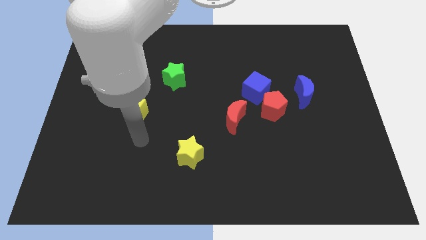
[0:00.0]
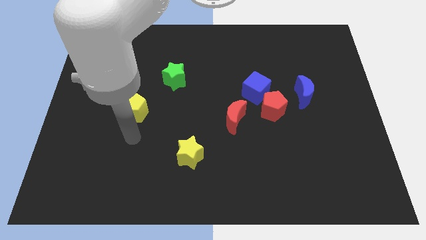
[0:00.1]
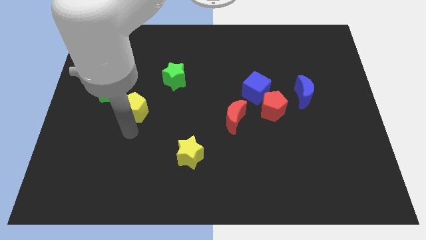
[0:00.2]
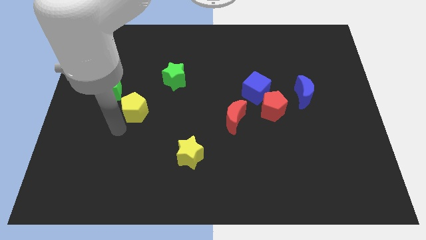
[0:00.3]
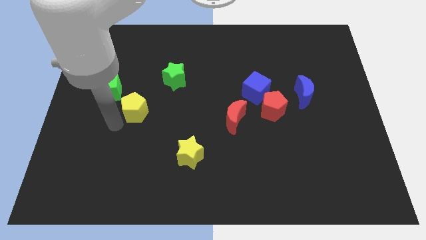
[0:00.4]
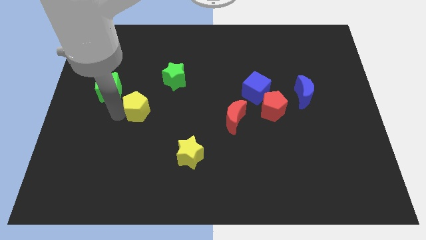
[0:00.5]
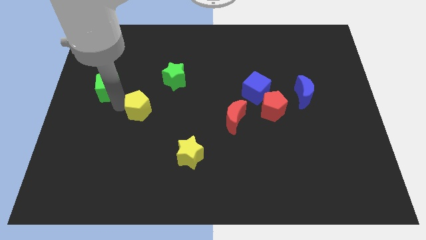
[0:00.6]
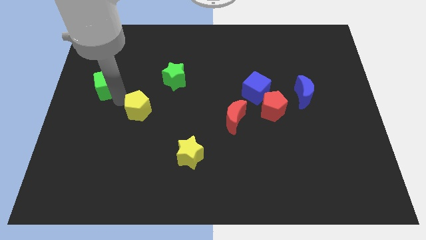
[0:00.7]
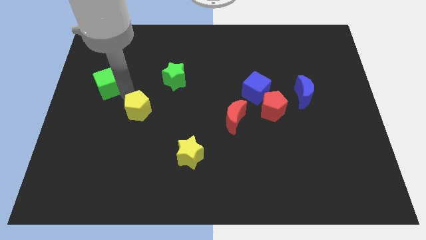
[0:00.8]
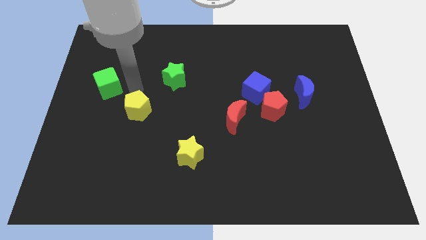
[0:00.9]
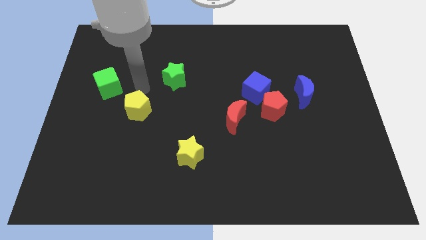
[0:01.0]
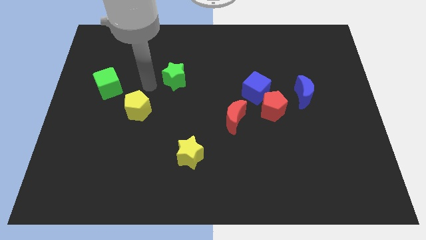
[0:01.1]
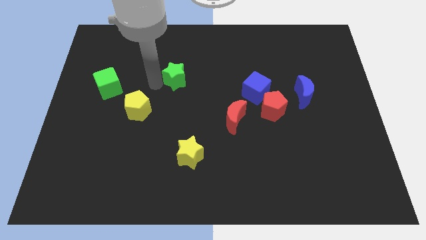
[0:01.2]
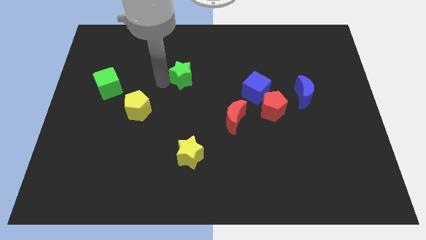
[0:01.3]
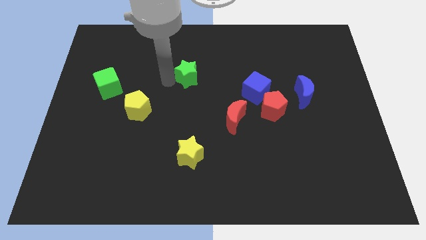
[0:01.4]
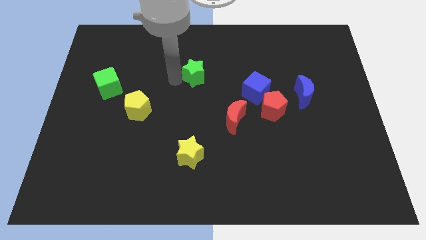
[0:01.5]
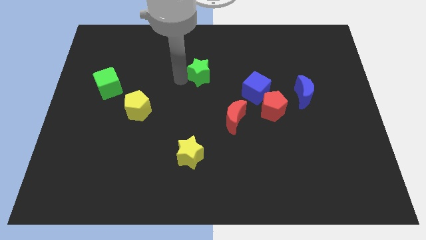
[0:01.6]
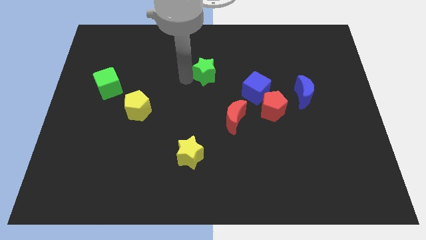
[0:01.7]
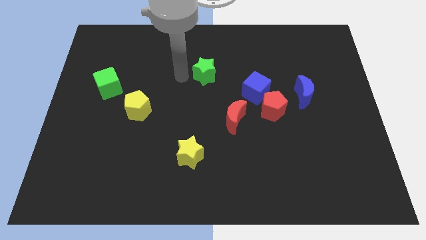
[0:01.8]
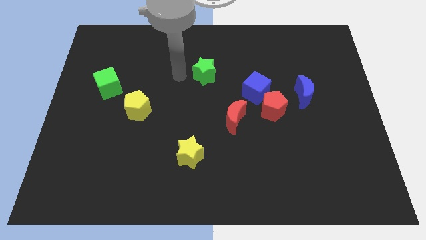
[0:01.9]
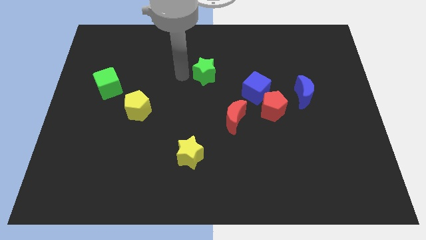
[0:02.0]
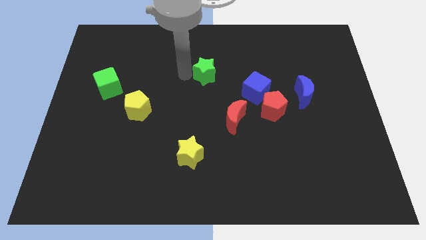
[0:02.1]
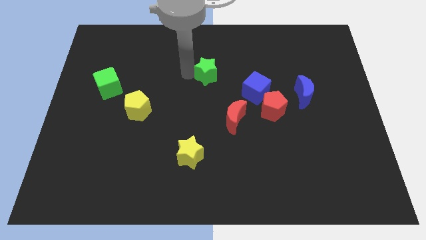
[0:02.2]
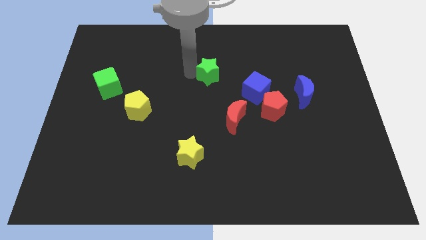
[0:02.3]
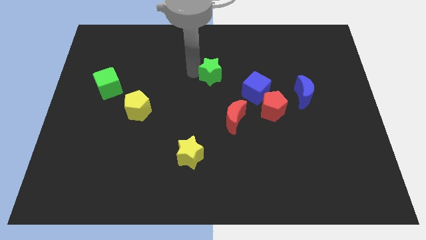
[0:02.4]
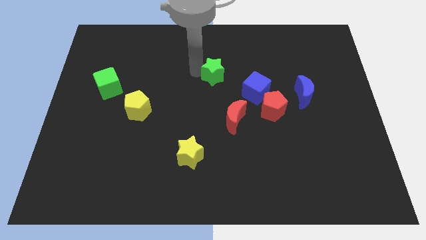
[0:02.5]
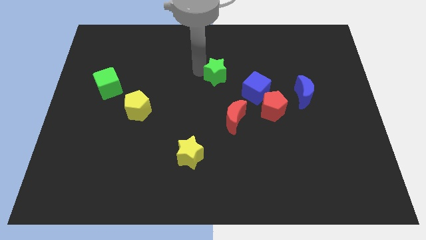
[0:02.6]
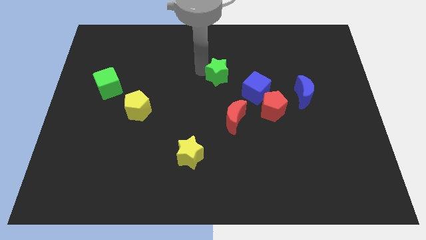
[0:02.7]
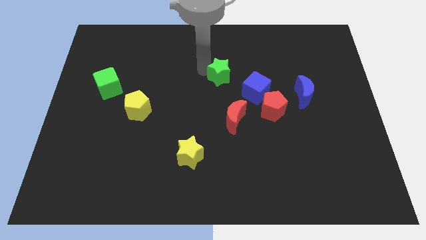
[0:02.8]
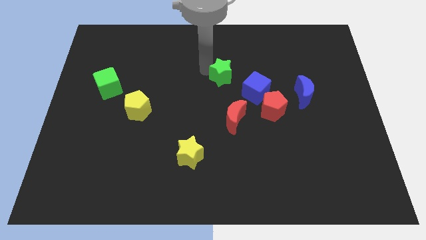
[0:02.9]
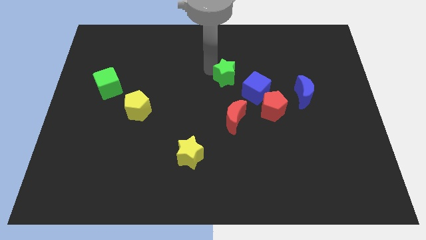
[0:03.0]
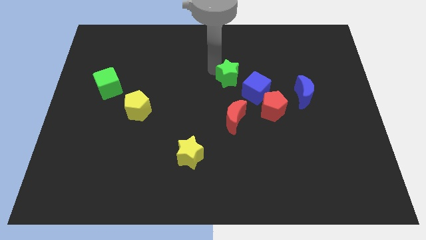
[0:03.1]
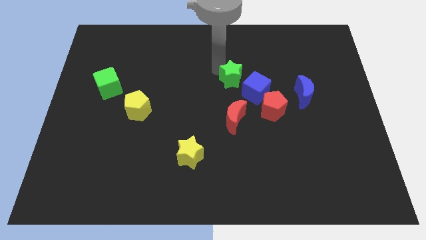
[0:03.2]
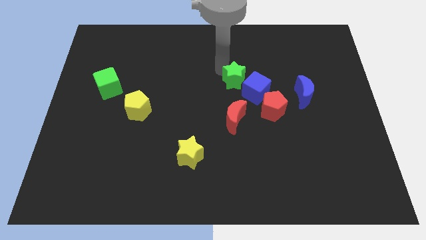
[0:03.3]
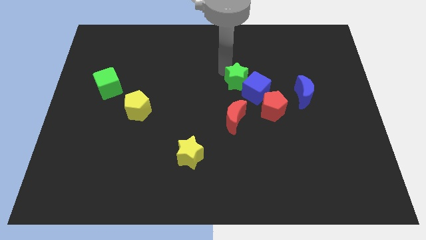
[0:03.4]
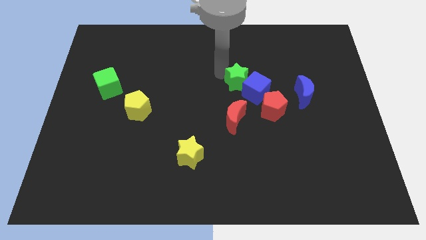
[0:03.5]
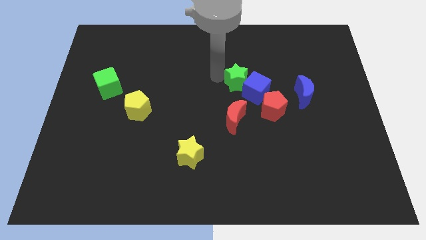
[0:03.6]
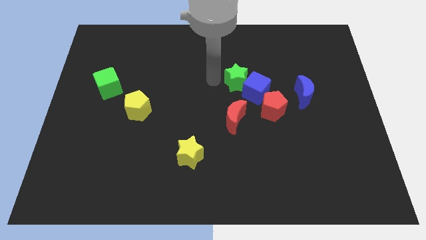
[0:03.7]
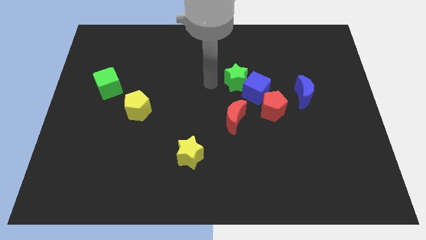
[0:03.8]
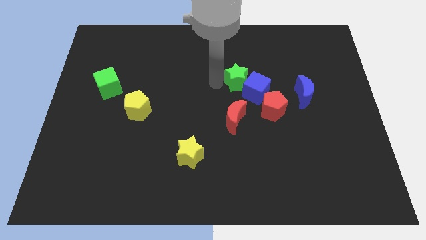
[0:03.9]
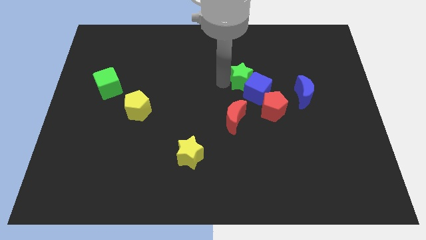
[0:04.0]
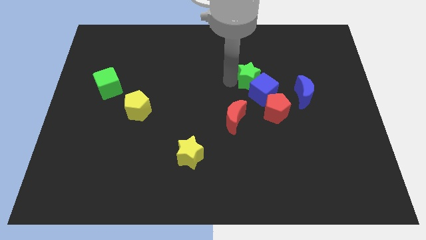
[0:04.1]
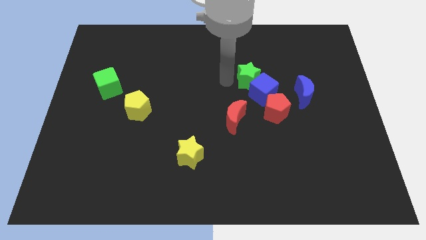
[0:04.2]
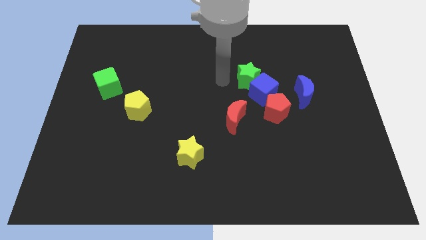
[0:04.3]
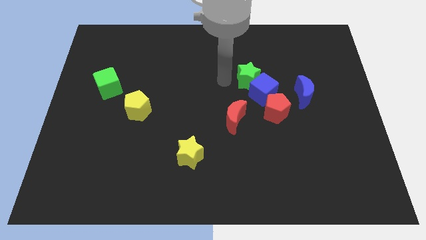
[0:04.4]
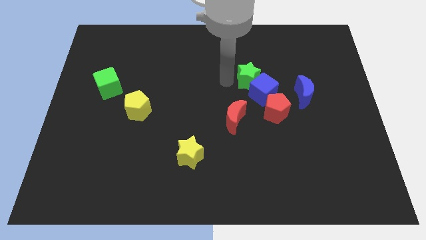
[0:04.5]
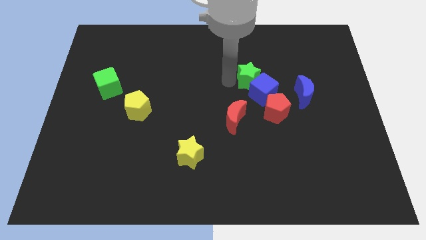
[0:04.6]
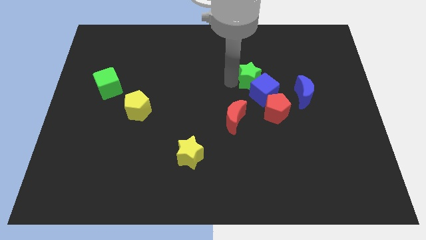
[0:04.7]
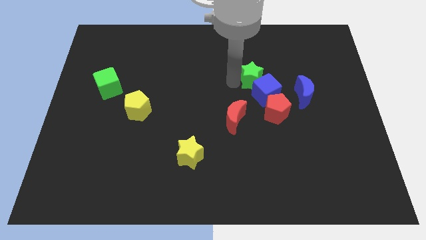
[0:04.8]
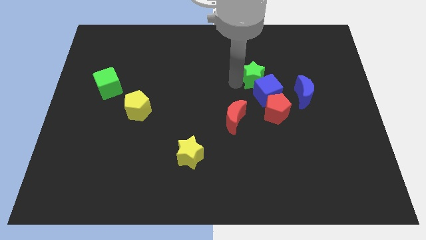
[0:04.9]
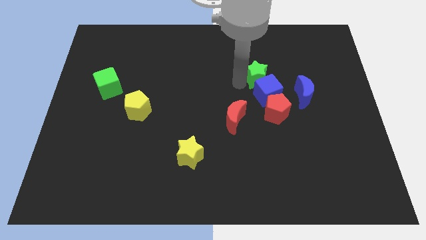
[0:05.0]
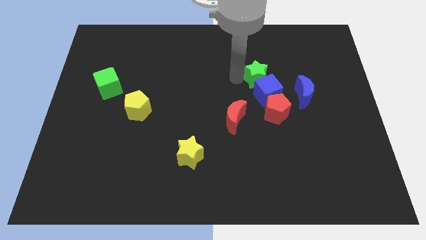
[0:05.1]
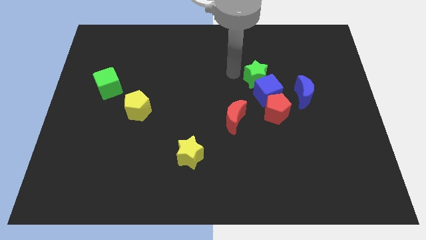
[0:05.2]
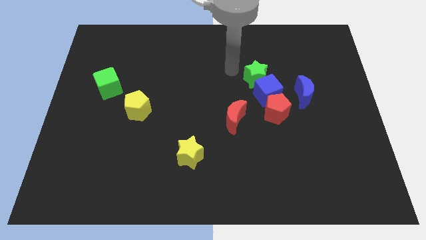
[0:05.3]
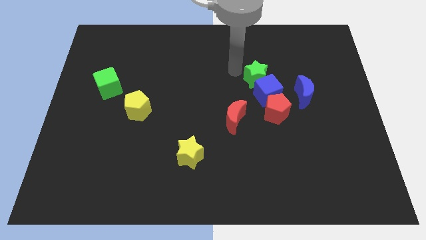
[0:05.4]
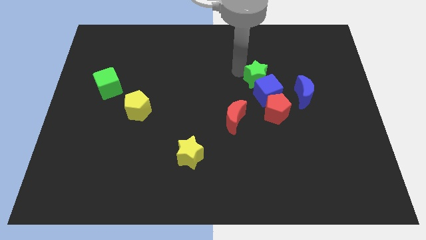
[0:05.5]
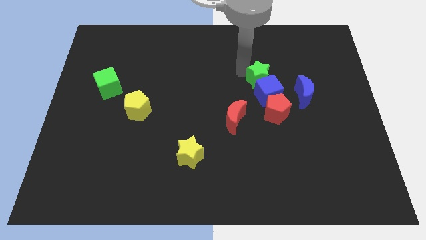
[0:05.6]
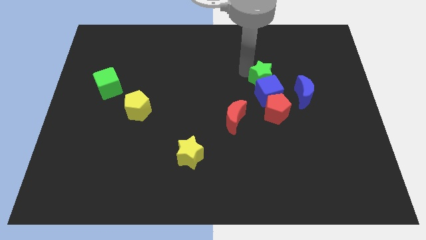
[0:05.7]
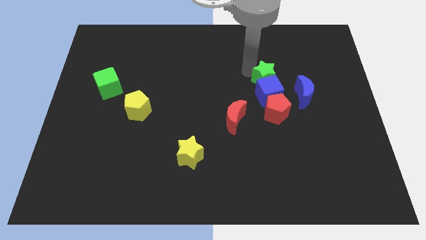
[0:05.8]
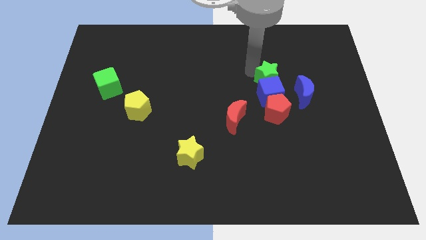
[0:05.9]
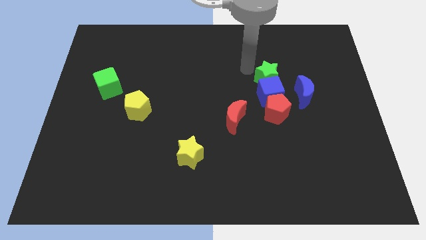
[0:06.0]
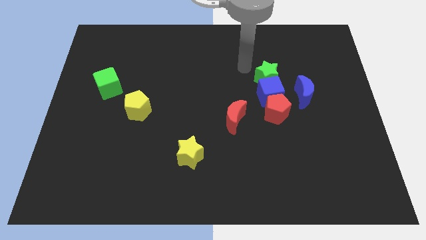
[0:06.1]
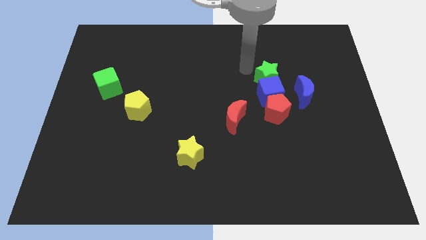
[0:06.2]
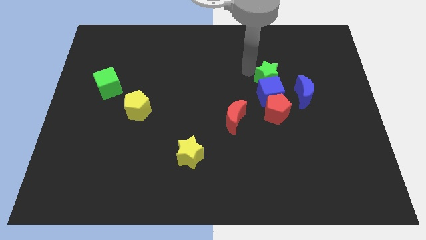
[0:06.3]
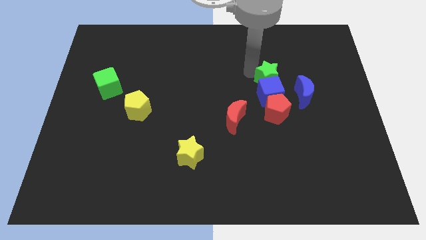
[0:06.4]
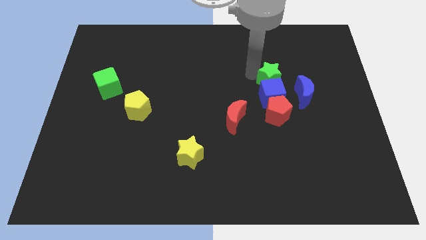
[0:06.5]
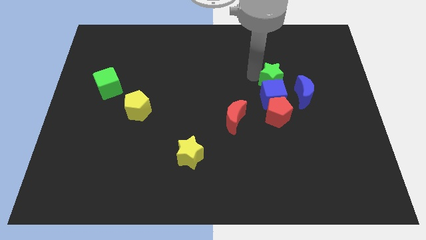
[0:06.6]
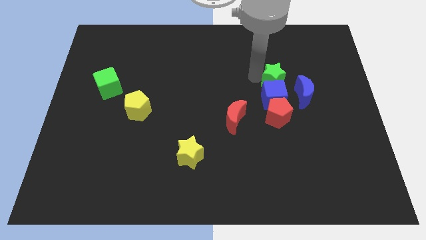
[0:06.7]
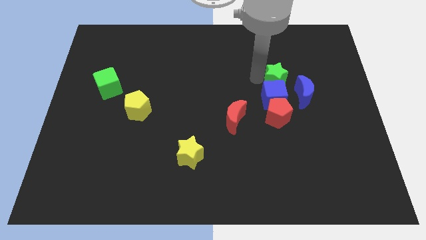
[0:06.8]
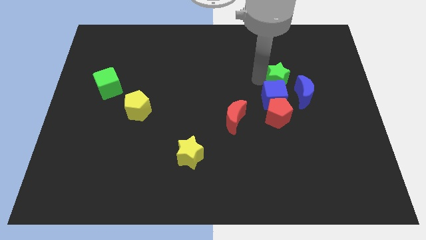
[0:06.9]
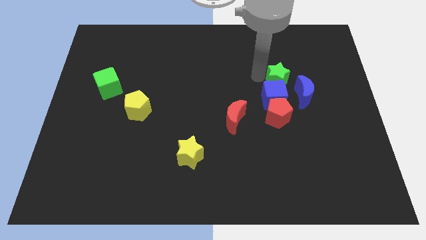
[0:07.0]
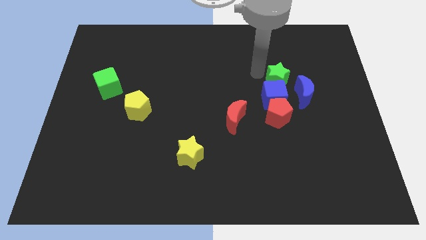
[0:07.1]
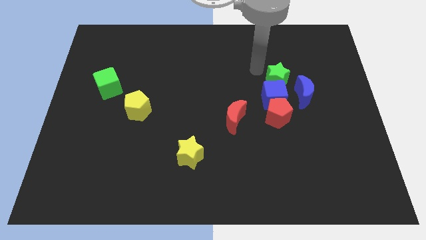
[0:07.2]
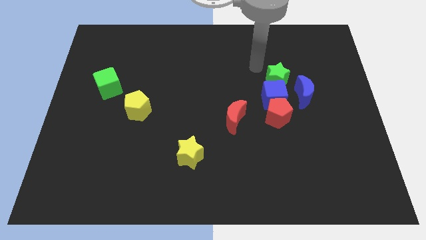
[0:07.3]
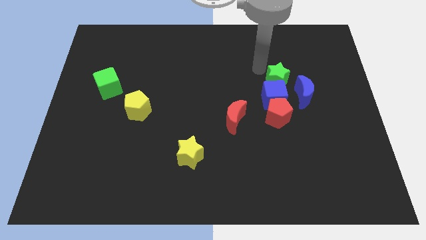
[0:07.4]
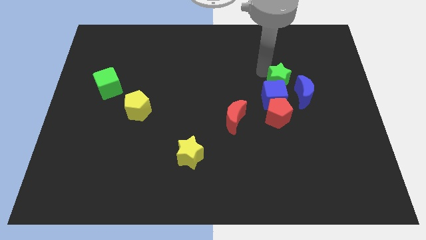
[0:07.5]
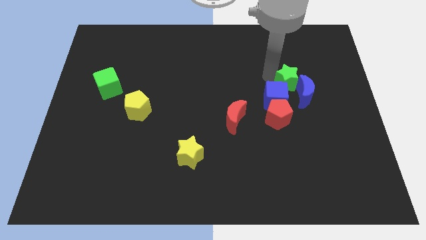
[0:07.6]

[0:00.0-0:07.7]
put the green star towards the blue moon
